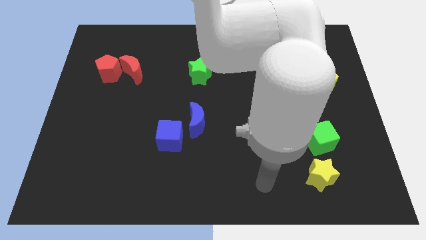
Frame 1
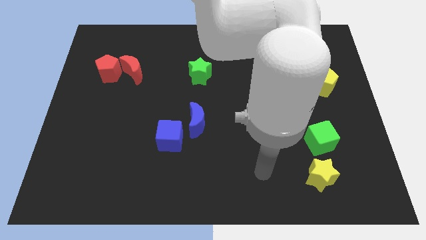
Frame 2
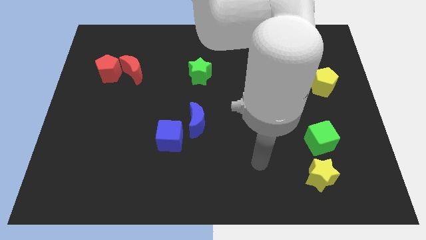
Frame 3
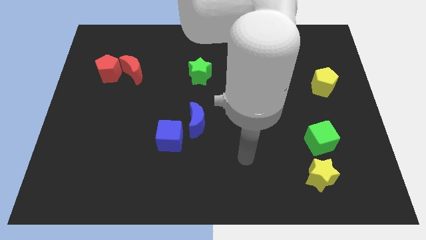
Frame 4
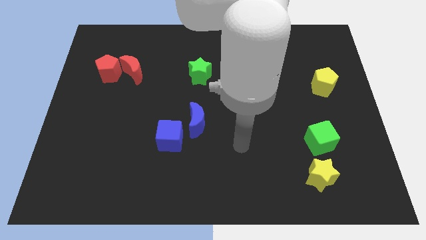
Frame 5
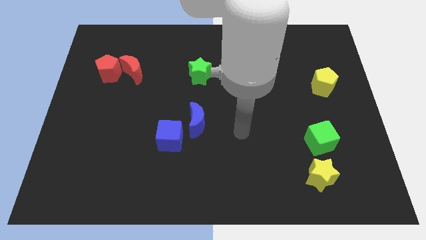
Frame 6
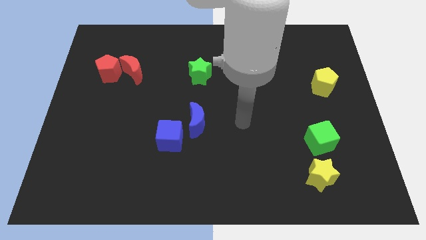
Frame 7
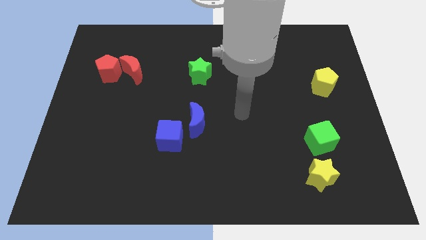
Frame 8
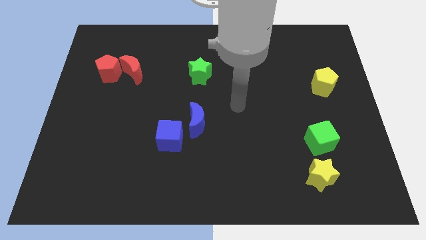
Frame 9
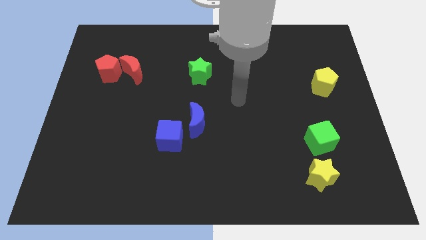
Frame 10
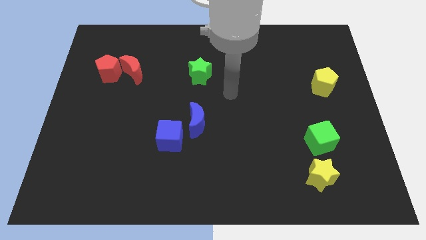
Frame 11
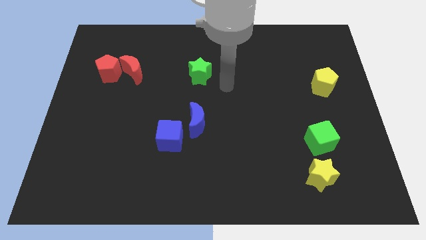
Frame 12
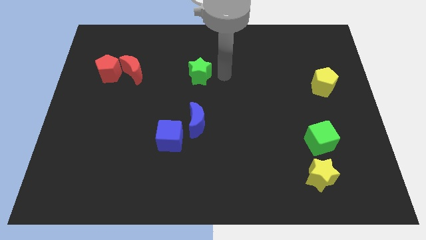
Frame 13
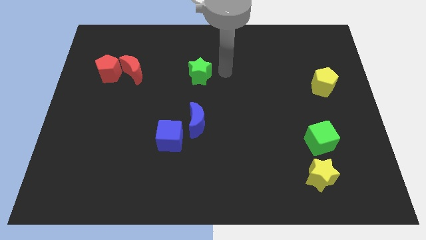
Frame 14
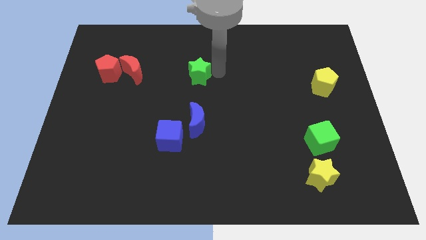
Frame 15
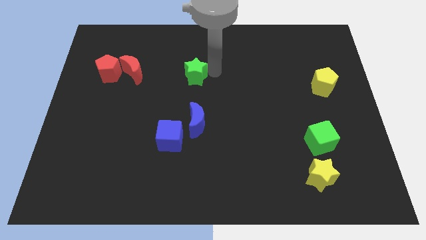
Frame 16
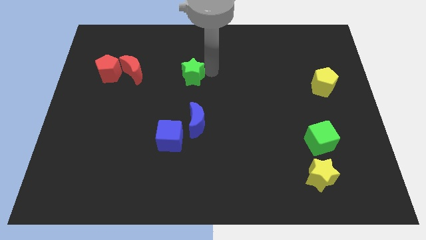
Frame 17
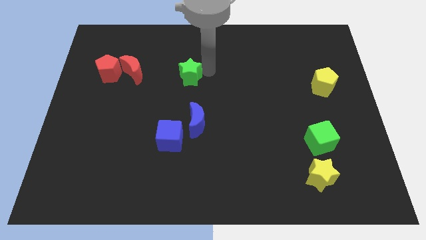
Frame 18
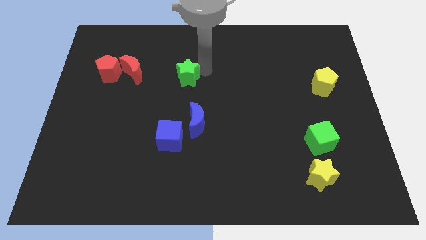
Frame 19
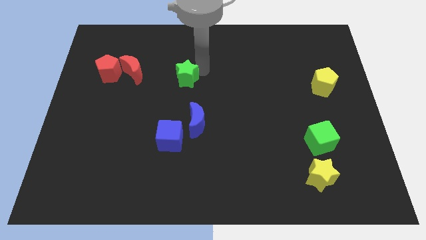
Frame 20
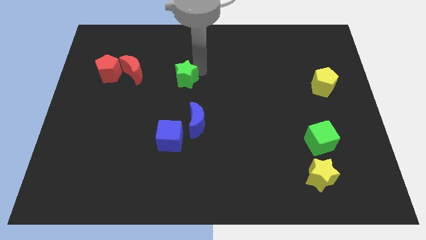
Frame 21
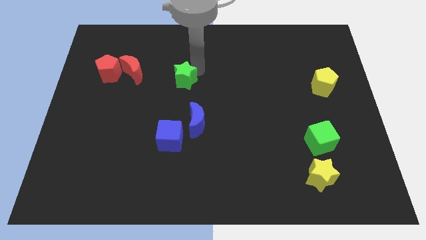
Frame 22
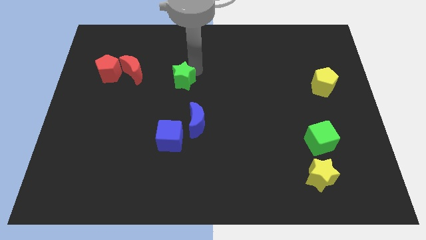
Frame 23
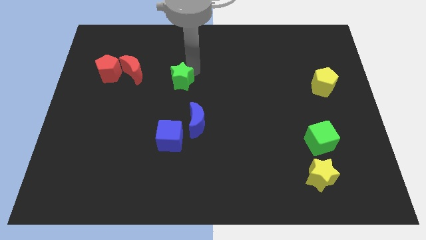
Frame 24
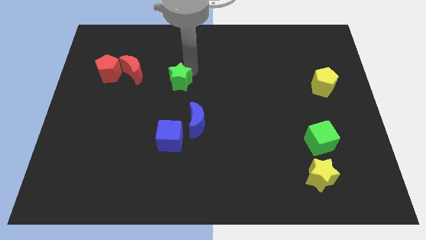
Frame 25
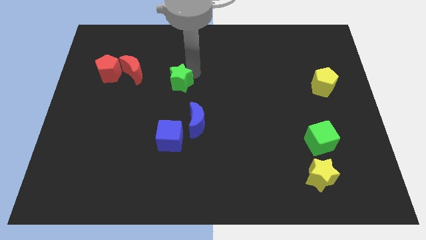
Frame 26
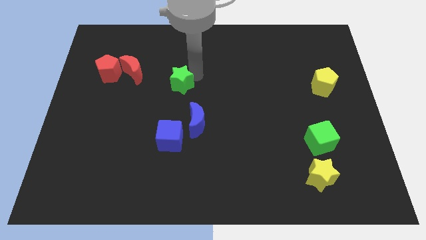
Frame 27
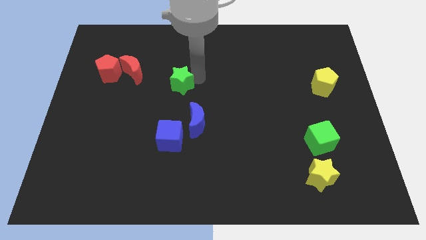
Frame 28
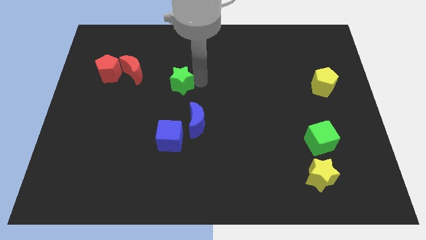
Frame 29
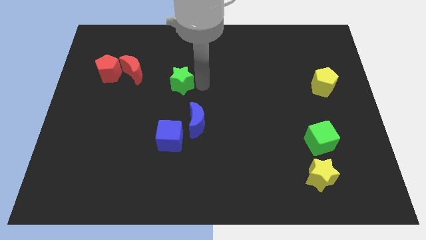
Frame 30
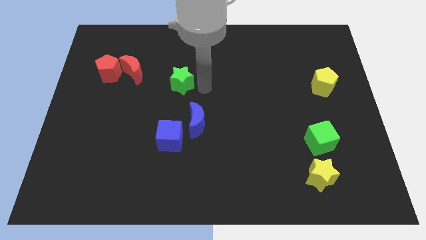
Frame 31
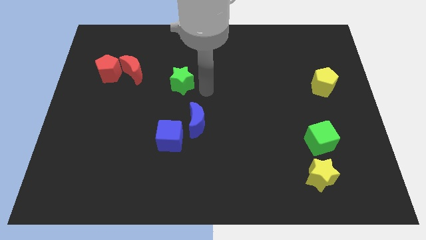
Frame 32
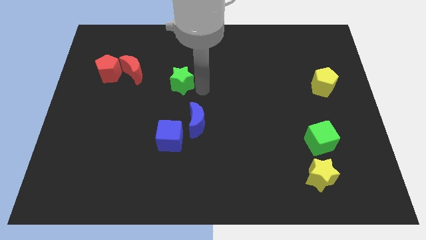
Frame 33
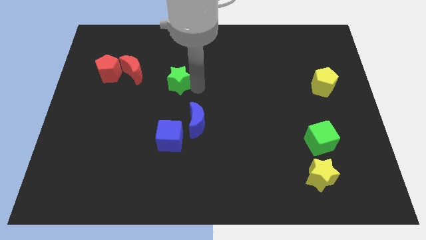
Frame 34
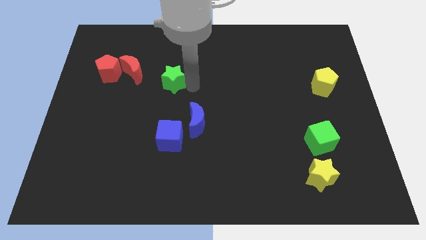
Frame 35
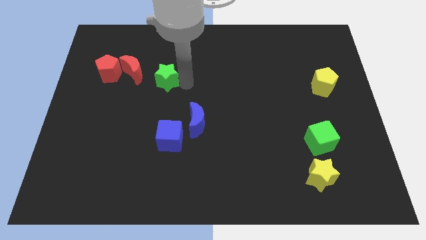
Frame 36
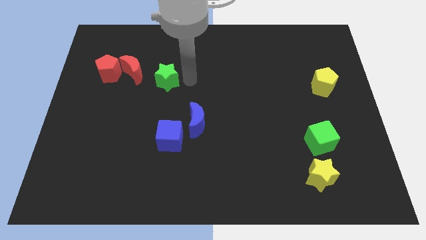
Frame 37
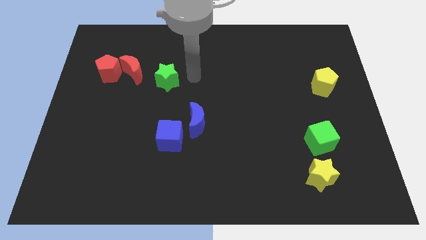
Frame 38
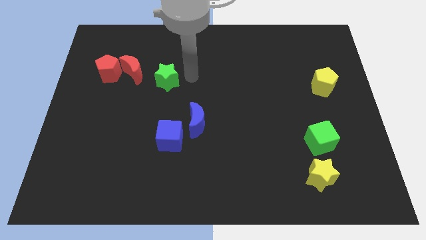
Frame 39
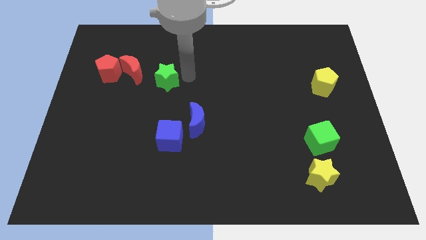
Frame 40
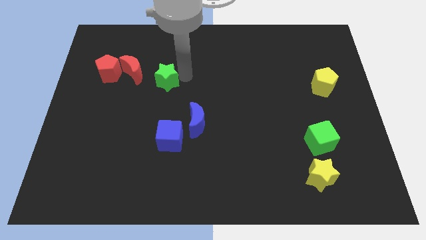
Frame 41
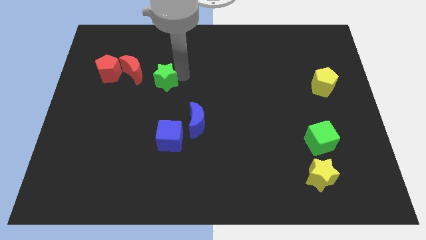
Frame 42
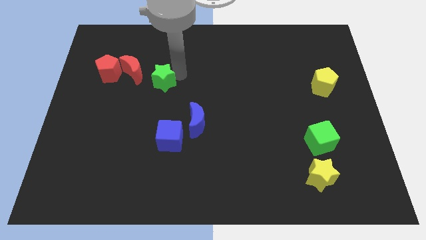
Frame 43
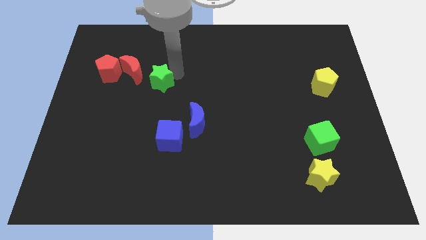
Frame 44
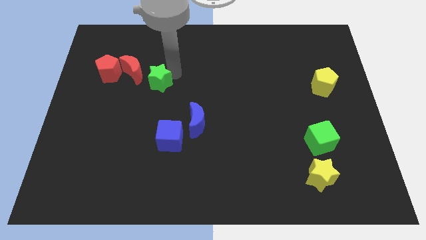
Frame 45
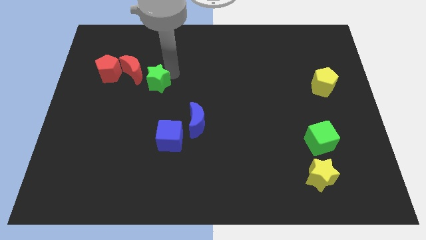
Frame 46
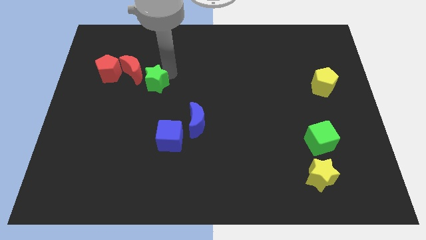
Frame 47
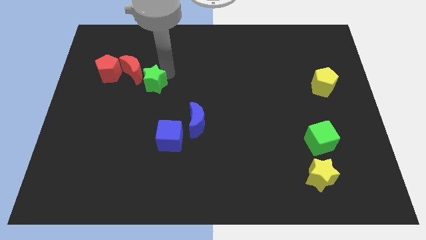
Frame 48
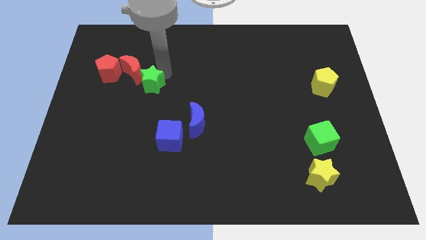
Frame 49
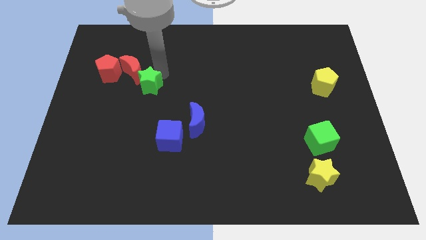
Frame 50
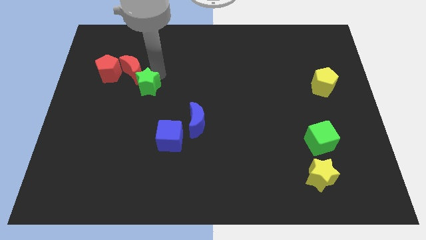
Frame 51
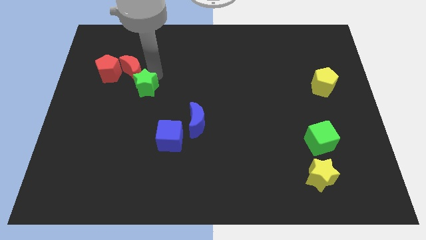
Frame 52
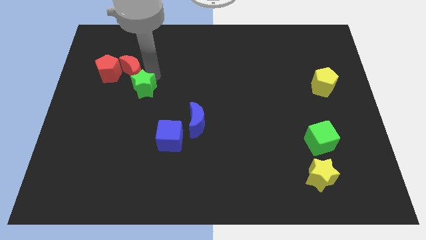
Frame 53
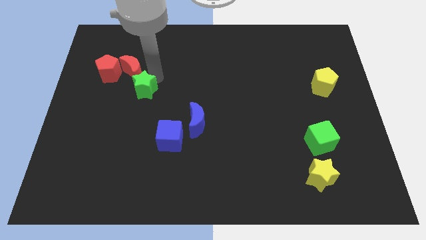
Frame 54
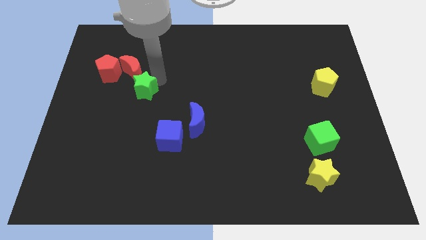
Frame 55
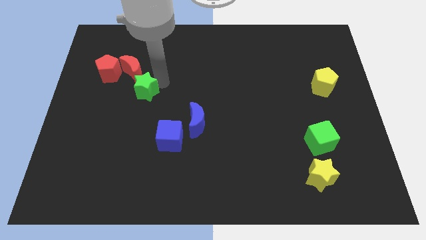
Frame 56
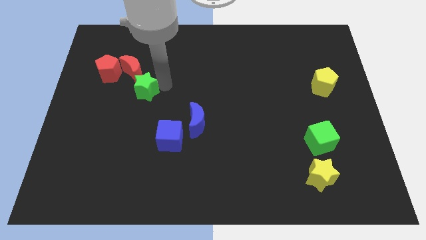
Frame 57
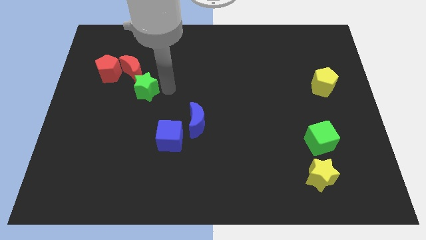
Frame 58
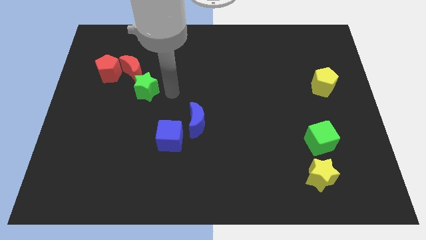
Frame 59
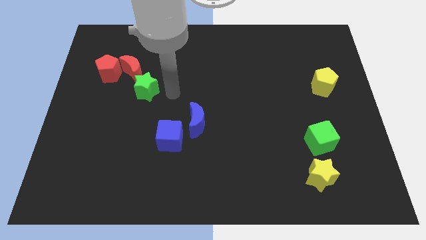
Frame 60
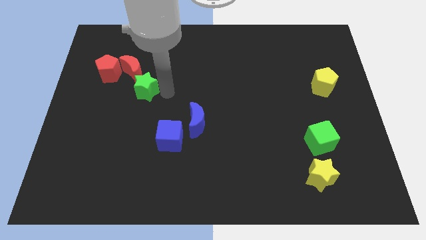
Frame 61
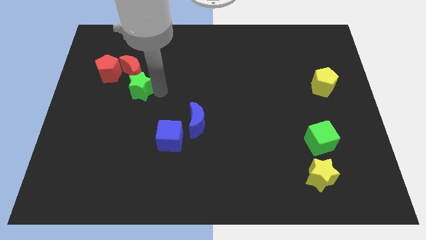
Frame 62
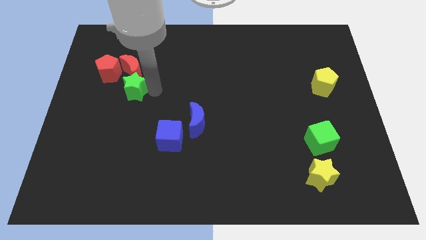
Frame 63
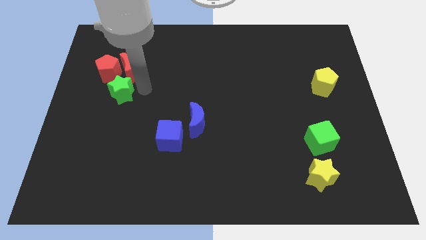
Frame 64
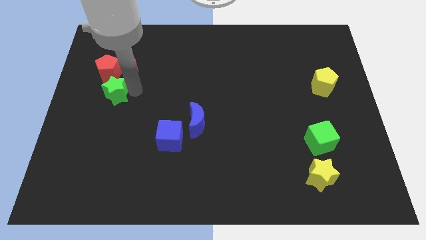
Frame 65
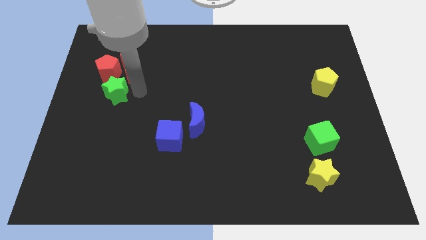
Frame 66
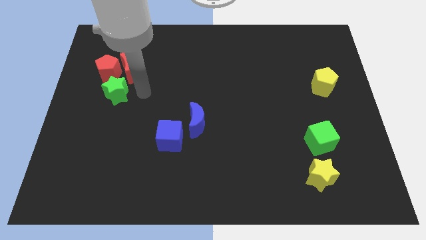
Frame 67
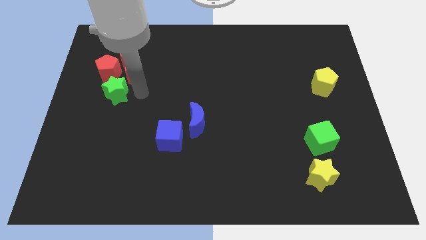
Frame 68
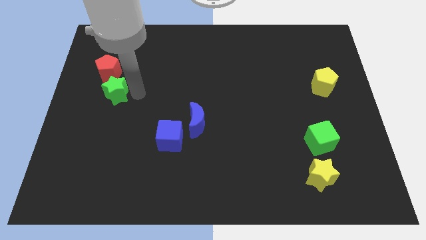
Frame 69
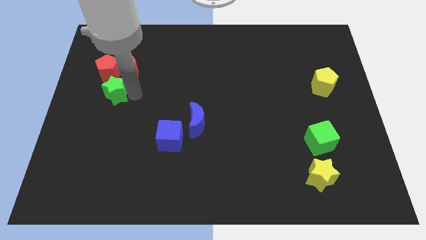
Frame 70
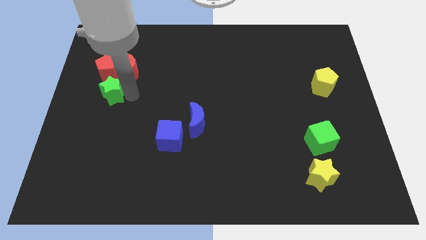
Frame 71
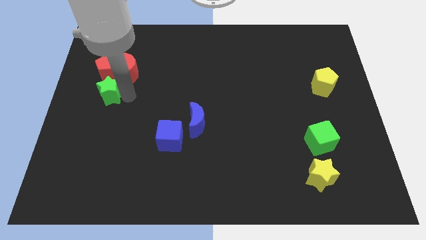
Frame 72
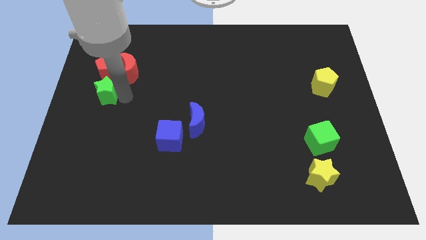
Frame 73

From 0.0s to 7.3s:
put the green star to the left side
